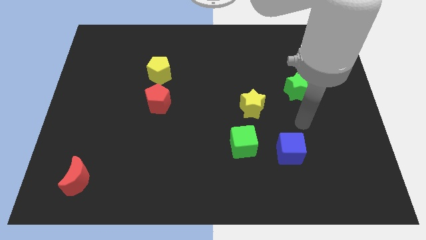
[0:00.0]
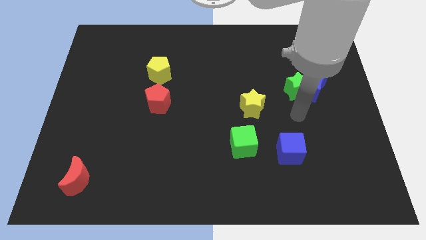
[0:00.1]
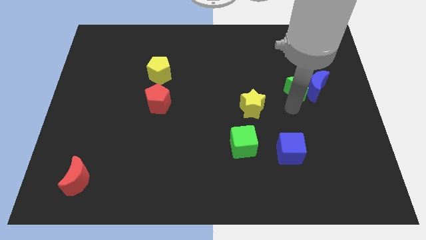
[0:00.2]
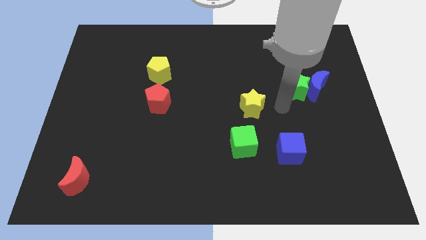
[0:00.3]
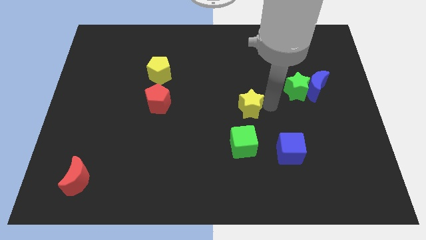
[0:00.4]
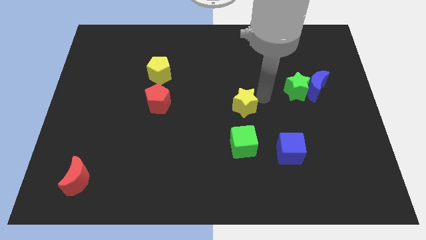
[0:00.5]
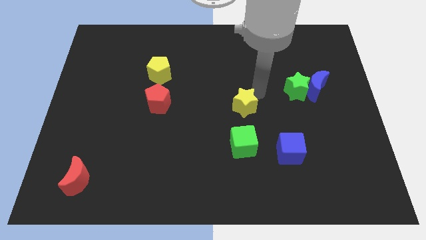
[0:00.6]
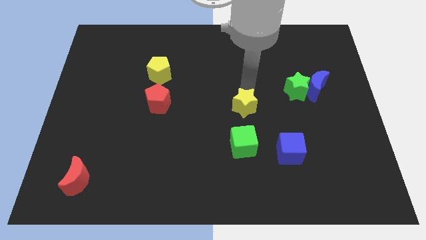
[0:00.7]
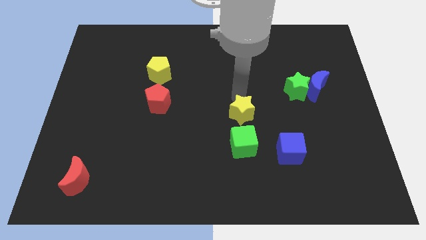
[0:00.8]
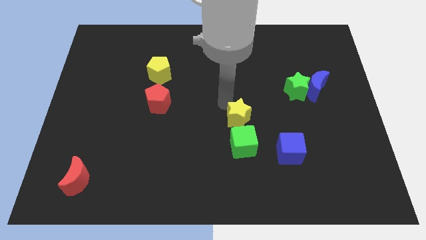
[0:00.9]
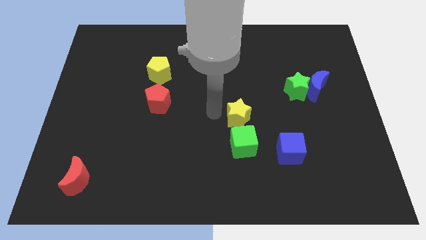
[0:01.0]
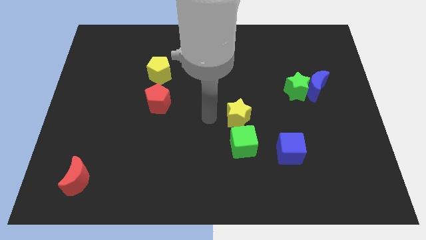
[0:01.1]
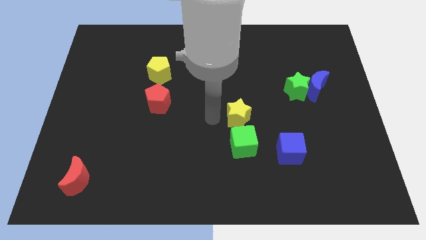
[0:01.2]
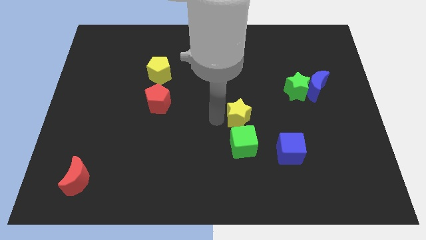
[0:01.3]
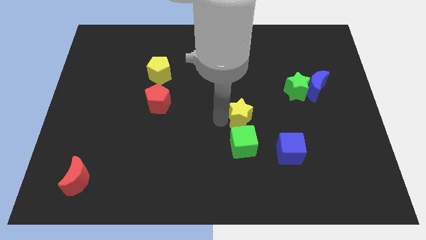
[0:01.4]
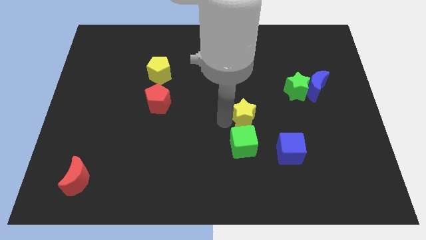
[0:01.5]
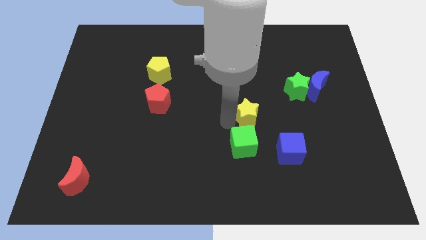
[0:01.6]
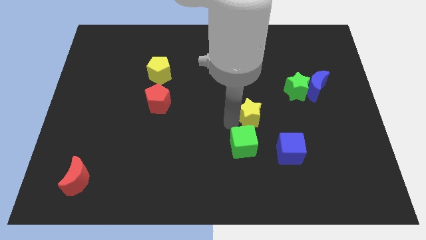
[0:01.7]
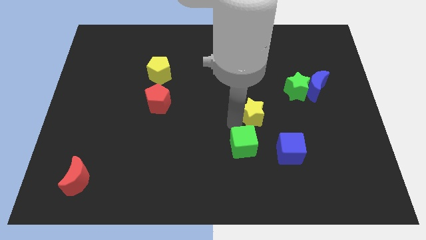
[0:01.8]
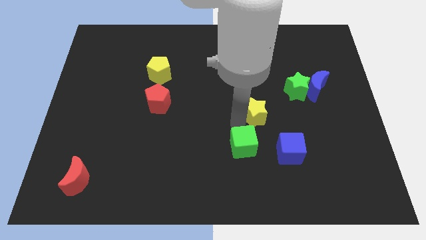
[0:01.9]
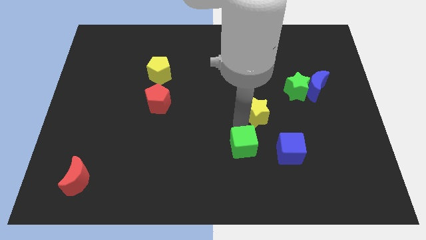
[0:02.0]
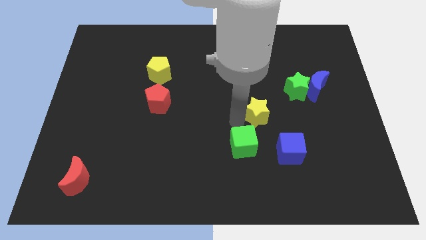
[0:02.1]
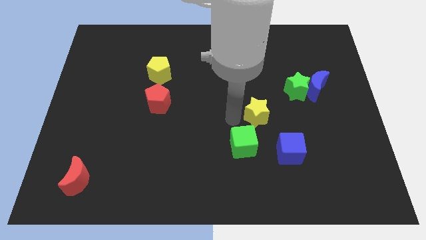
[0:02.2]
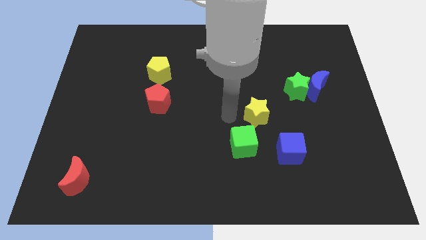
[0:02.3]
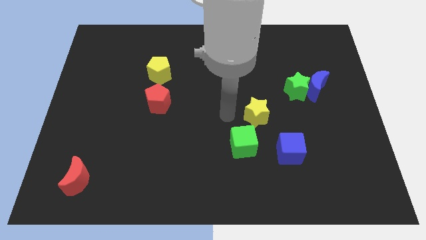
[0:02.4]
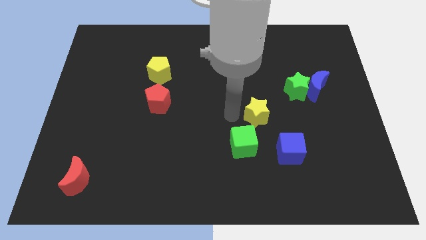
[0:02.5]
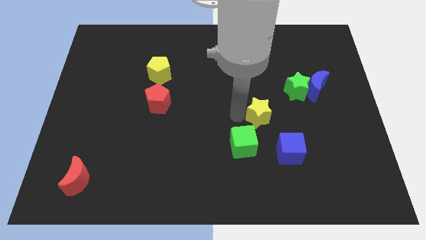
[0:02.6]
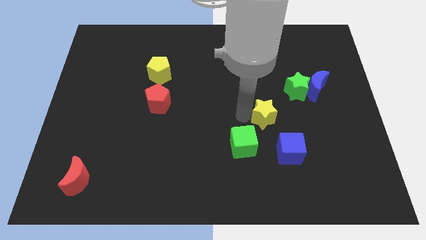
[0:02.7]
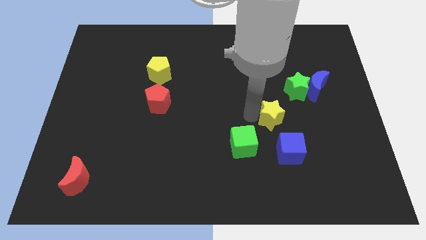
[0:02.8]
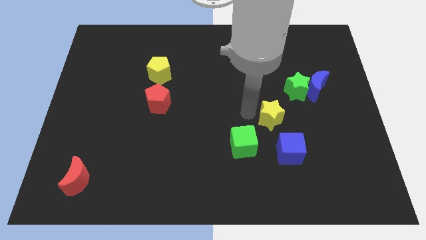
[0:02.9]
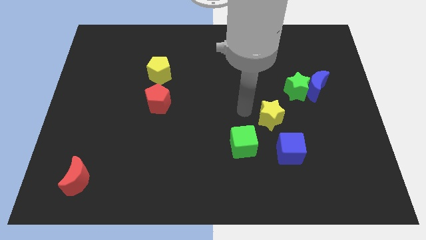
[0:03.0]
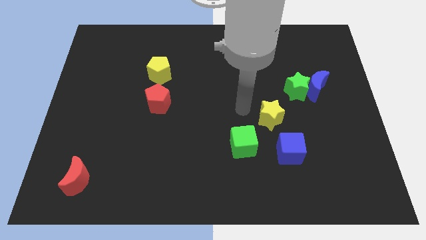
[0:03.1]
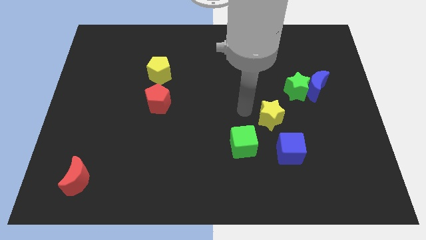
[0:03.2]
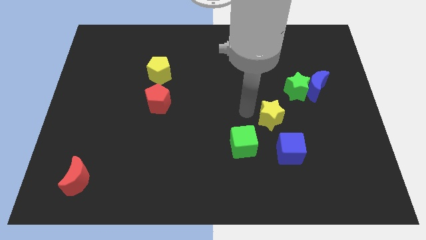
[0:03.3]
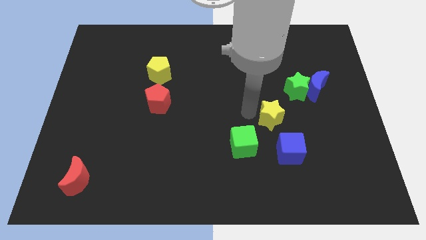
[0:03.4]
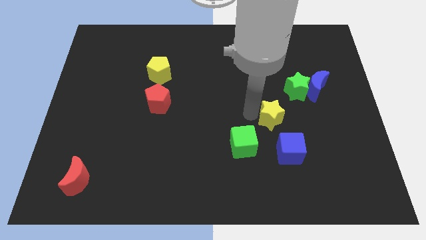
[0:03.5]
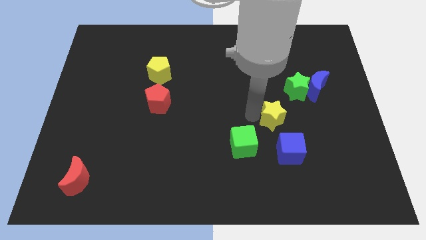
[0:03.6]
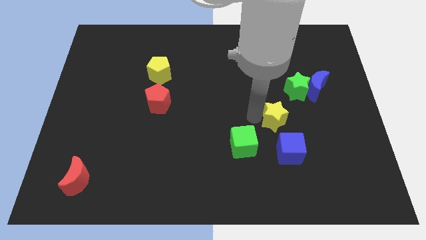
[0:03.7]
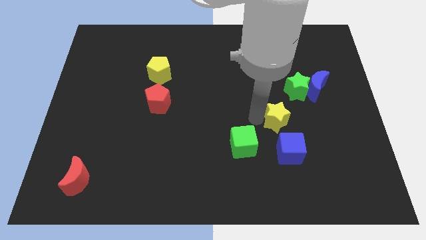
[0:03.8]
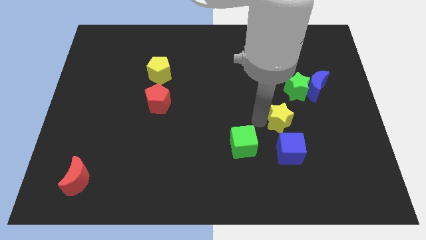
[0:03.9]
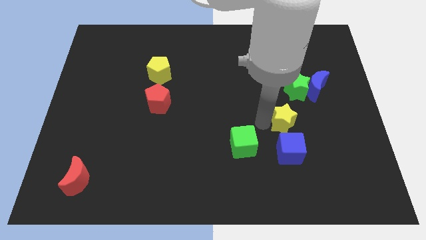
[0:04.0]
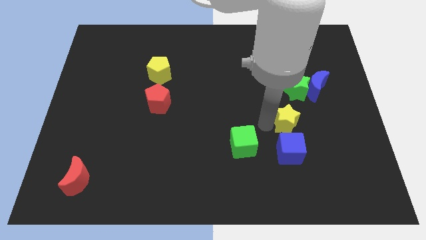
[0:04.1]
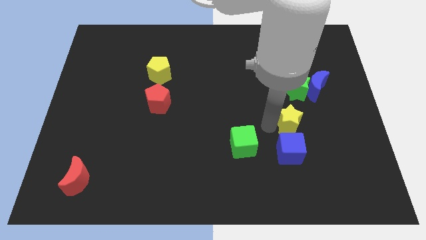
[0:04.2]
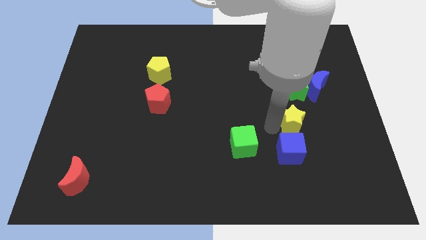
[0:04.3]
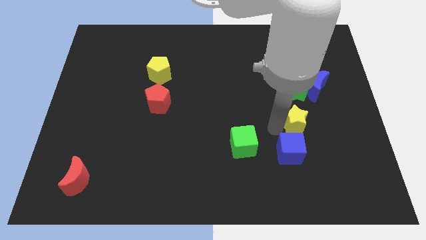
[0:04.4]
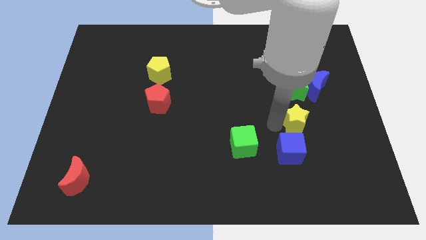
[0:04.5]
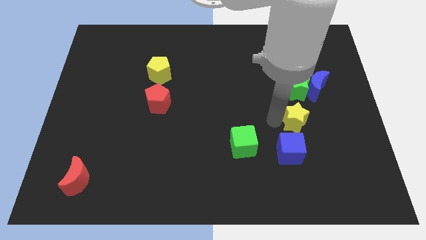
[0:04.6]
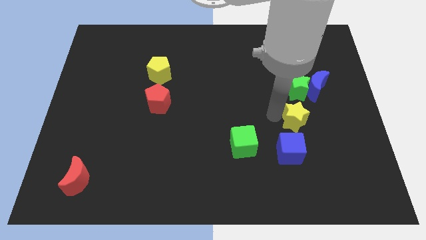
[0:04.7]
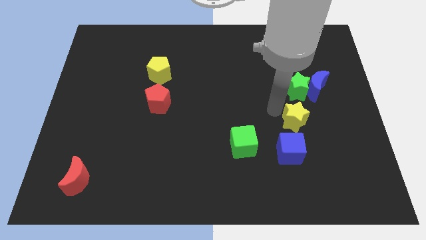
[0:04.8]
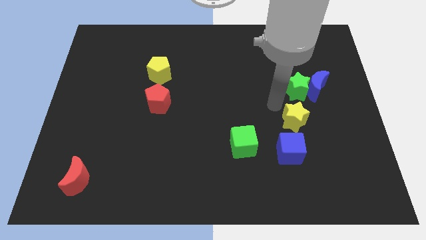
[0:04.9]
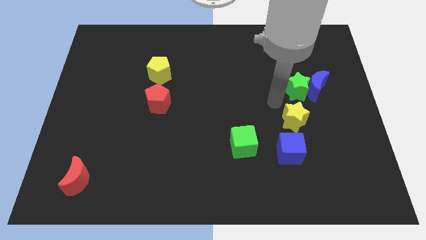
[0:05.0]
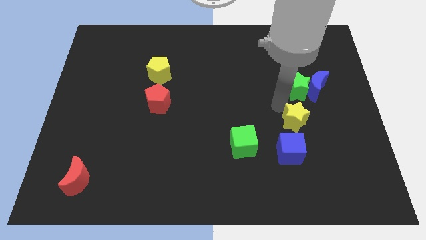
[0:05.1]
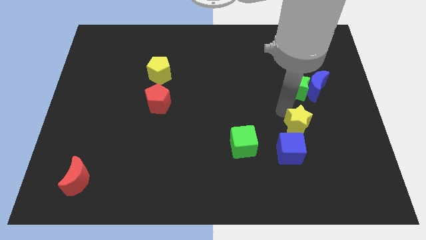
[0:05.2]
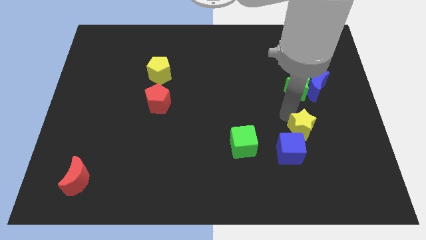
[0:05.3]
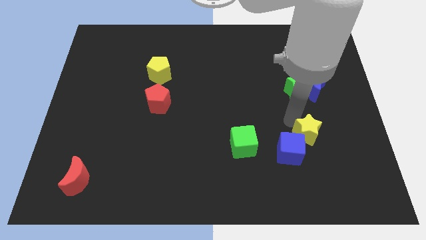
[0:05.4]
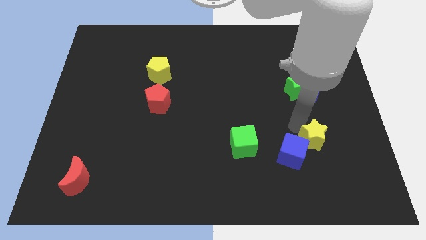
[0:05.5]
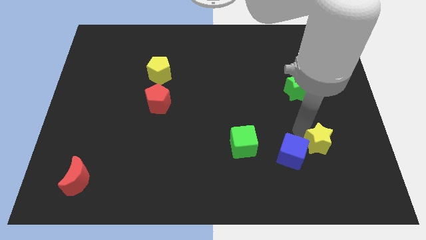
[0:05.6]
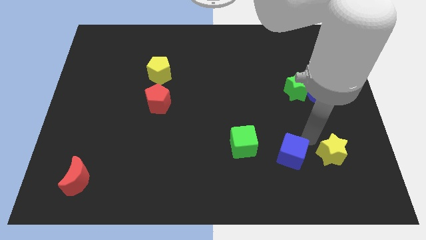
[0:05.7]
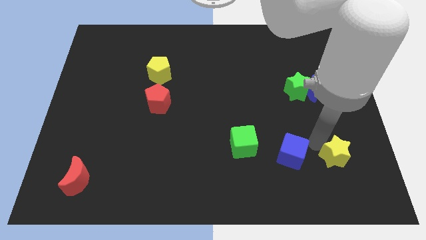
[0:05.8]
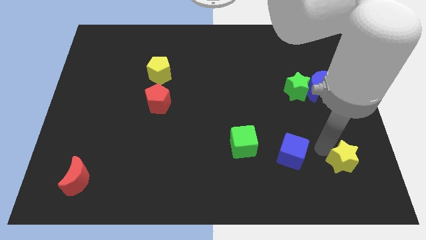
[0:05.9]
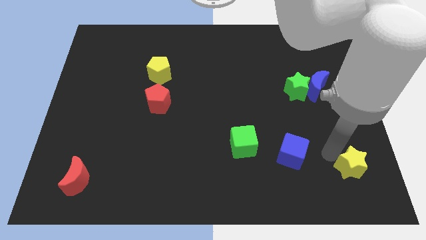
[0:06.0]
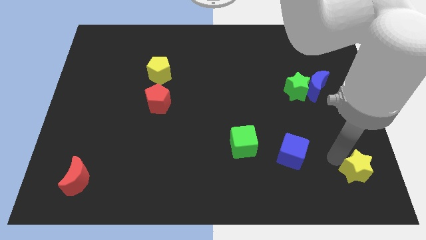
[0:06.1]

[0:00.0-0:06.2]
push the yellow star to the bottom right
